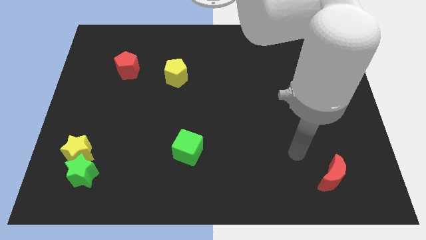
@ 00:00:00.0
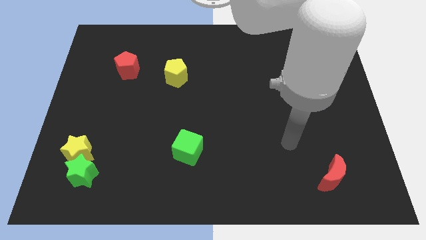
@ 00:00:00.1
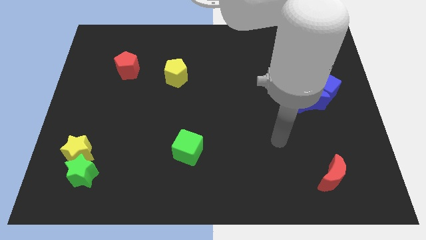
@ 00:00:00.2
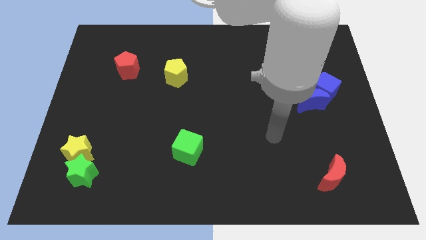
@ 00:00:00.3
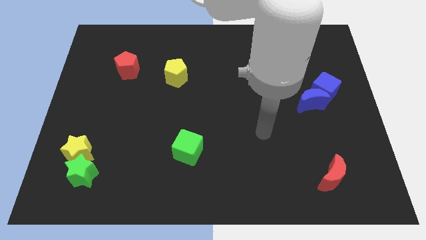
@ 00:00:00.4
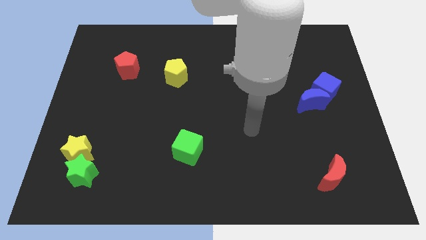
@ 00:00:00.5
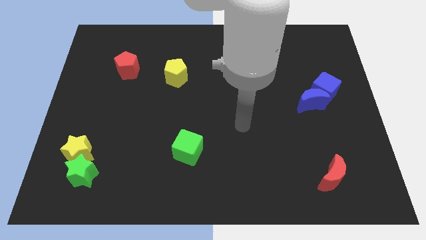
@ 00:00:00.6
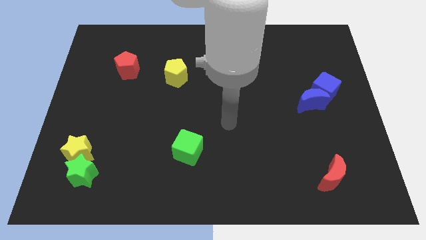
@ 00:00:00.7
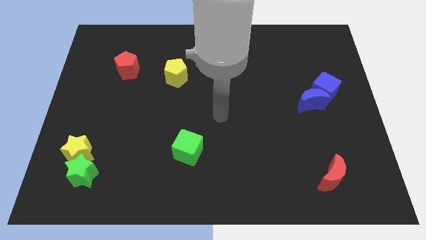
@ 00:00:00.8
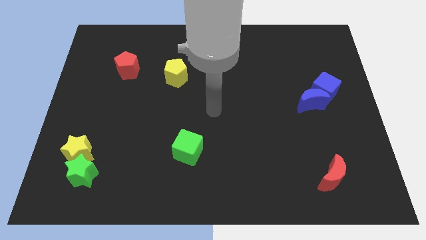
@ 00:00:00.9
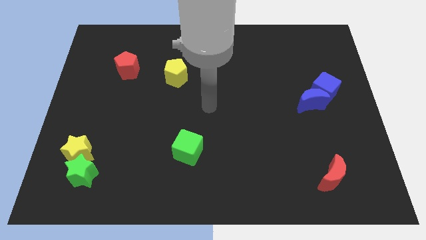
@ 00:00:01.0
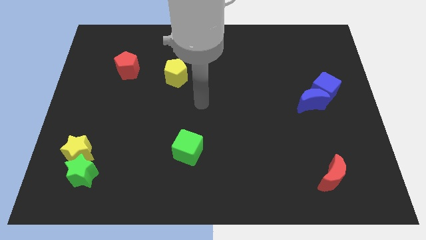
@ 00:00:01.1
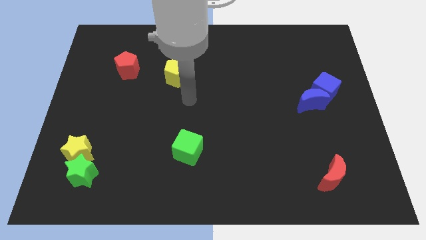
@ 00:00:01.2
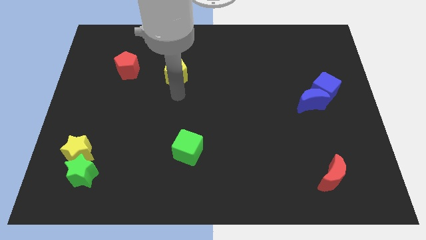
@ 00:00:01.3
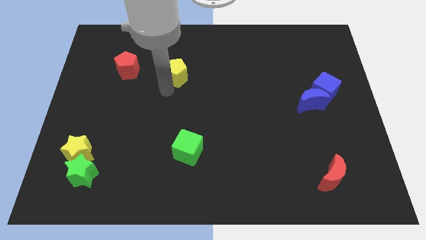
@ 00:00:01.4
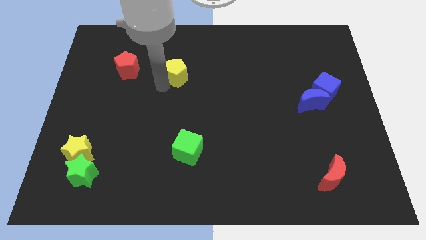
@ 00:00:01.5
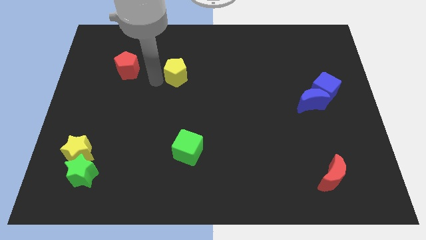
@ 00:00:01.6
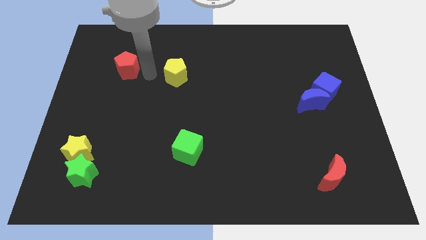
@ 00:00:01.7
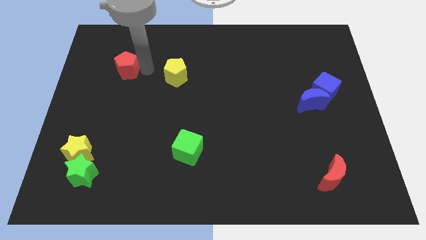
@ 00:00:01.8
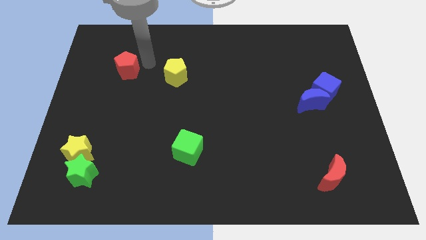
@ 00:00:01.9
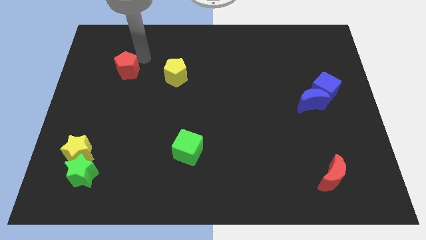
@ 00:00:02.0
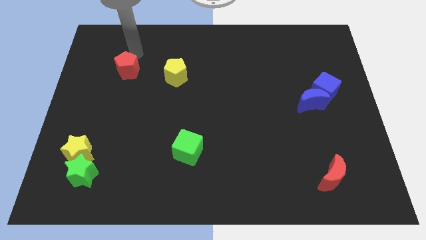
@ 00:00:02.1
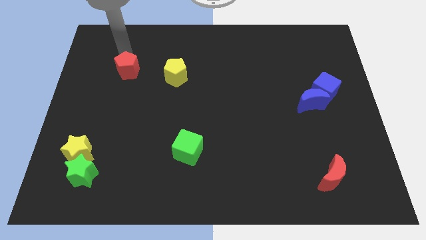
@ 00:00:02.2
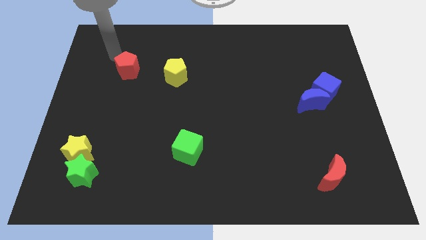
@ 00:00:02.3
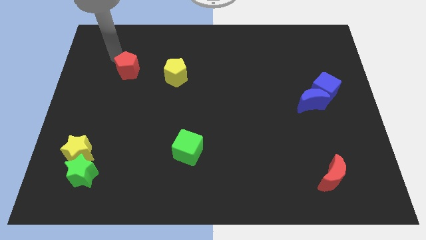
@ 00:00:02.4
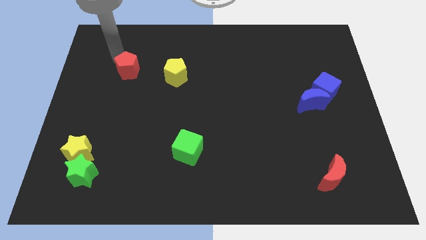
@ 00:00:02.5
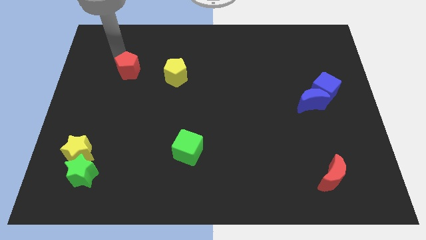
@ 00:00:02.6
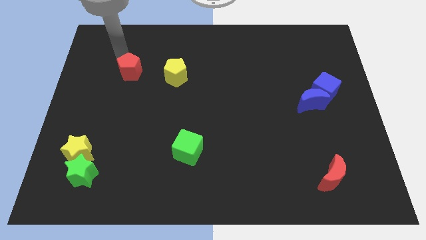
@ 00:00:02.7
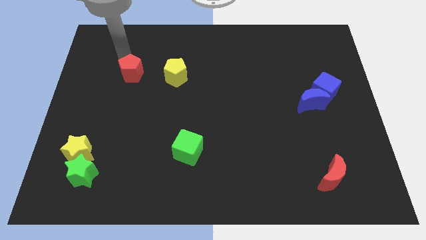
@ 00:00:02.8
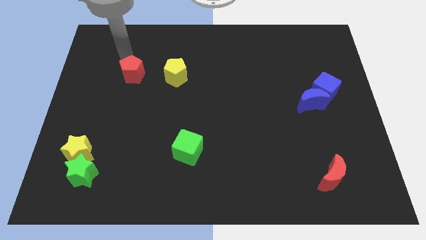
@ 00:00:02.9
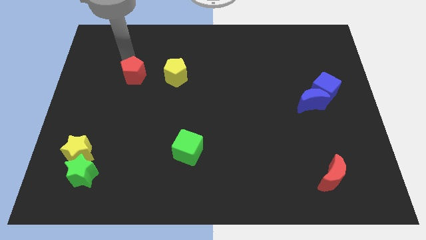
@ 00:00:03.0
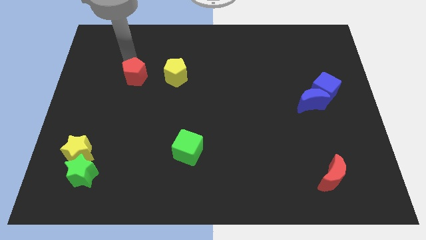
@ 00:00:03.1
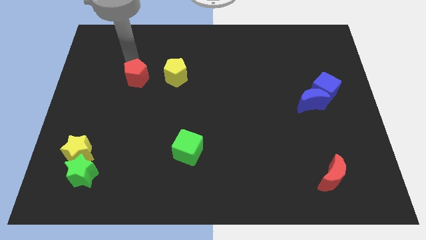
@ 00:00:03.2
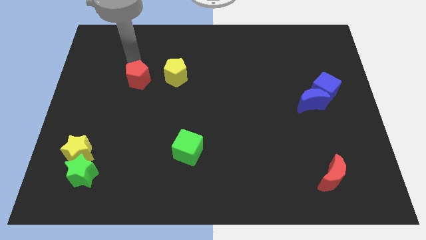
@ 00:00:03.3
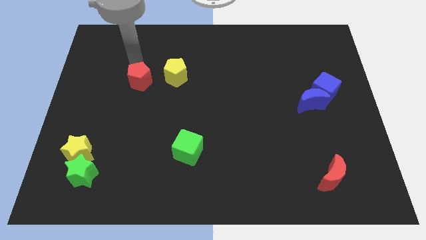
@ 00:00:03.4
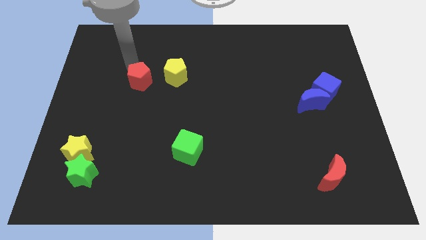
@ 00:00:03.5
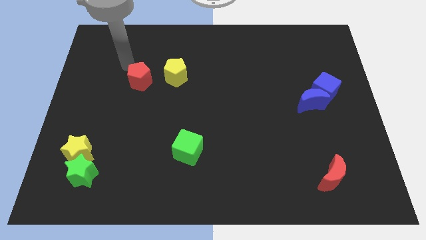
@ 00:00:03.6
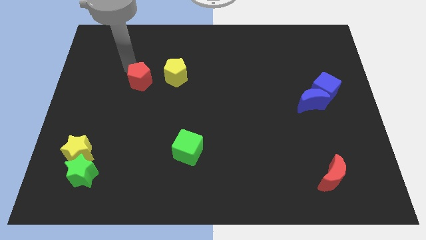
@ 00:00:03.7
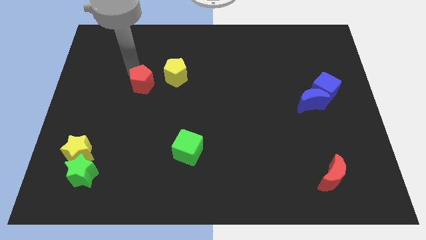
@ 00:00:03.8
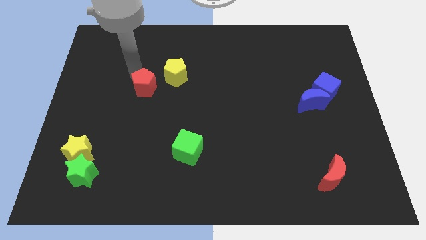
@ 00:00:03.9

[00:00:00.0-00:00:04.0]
push the red pentagon a little down and right

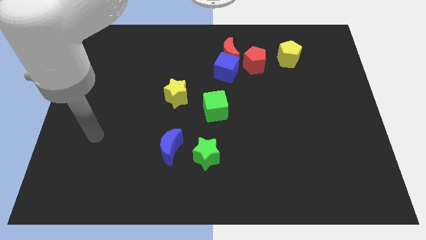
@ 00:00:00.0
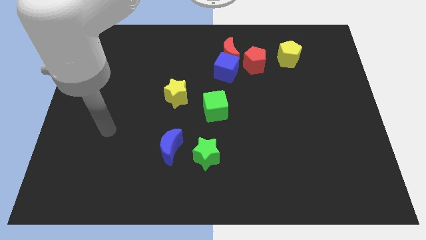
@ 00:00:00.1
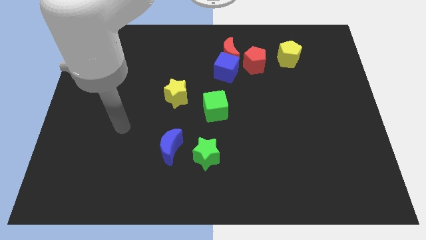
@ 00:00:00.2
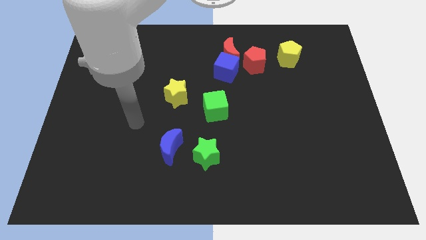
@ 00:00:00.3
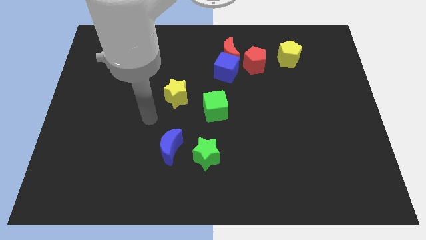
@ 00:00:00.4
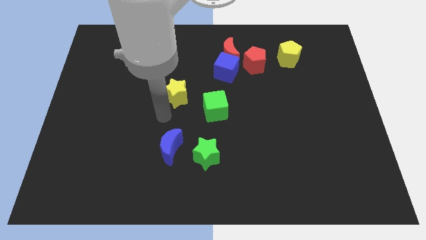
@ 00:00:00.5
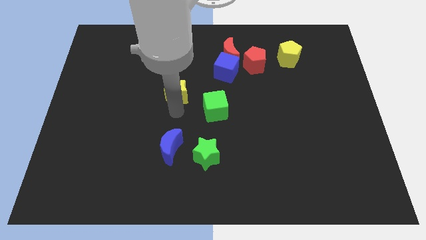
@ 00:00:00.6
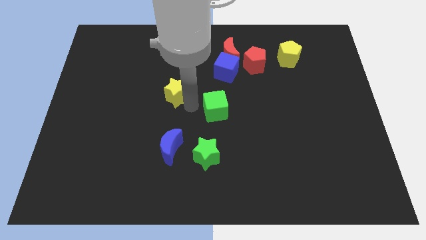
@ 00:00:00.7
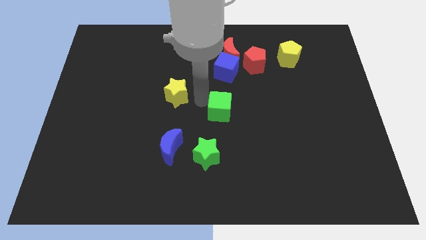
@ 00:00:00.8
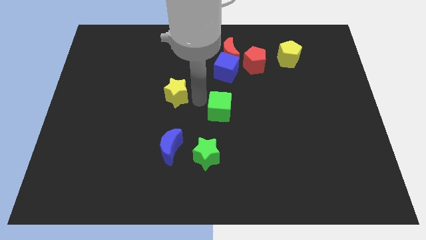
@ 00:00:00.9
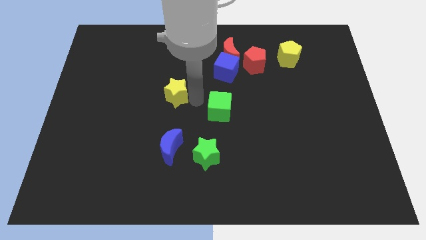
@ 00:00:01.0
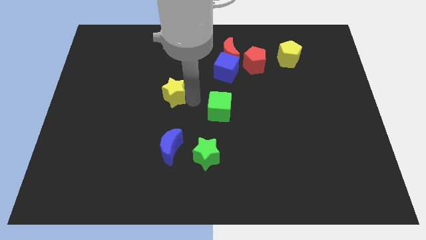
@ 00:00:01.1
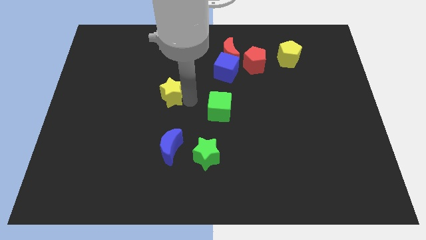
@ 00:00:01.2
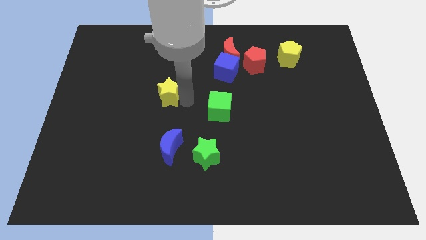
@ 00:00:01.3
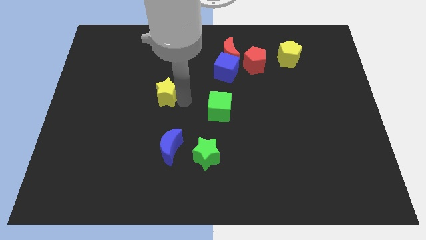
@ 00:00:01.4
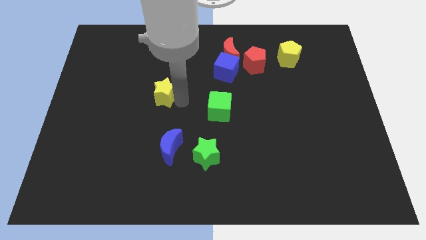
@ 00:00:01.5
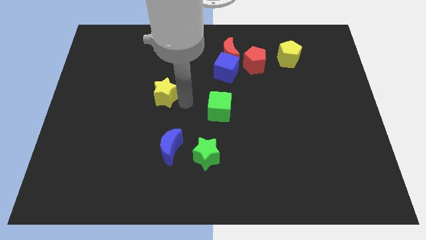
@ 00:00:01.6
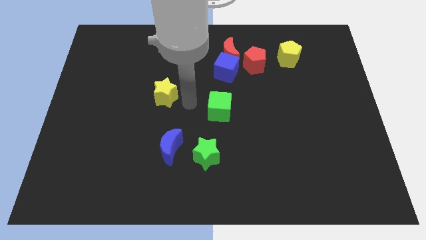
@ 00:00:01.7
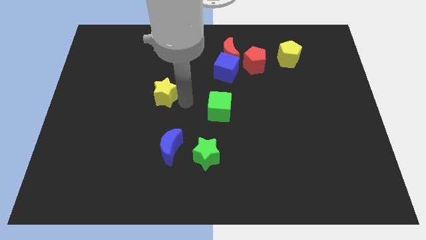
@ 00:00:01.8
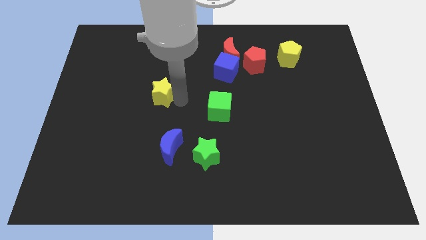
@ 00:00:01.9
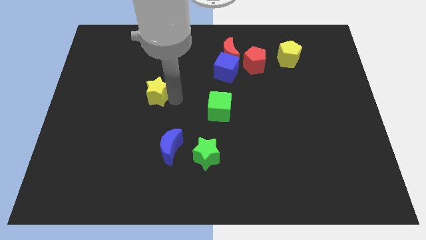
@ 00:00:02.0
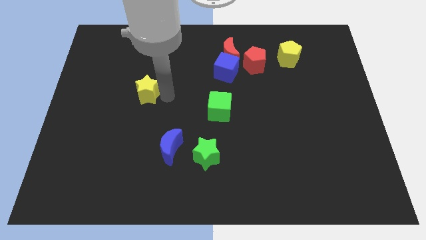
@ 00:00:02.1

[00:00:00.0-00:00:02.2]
slightly push the yellow star to the left

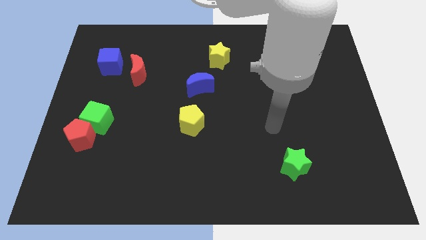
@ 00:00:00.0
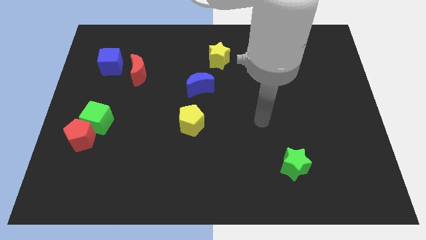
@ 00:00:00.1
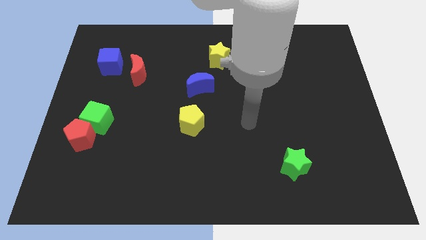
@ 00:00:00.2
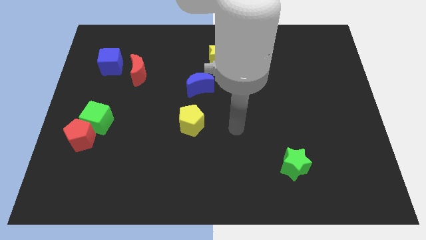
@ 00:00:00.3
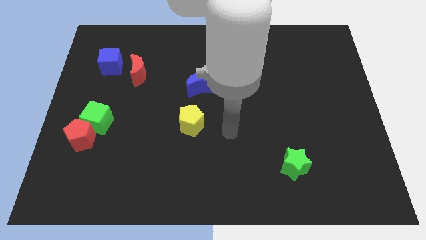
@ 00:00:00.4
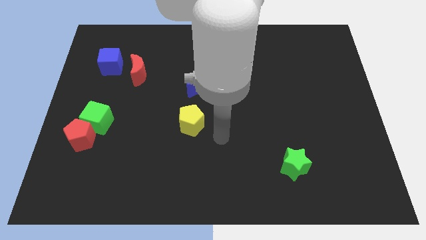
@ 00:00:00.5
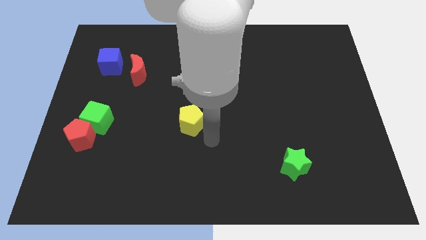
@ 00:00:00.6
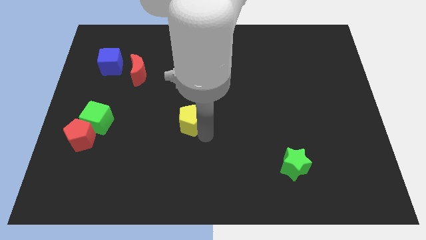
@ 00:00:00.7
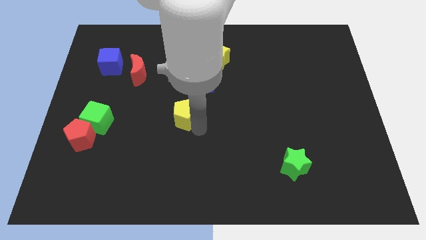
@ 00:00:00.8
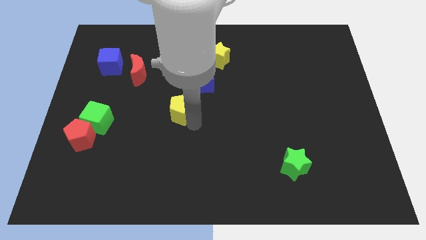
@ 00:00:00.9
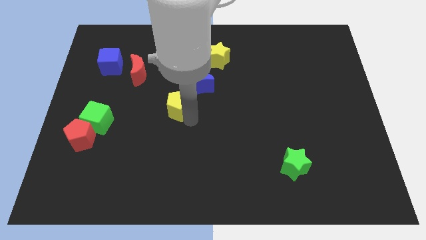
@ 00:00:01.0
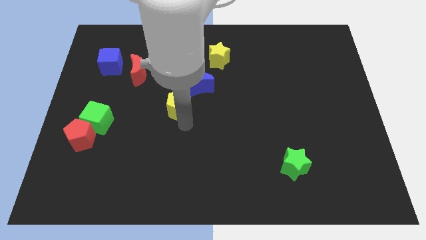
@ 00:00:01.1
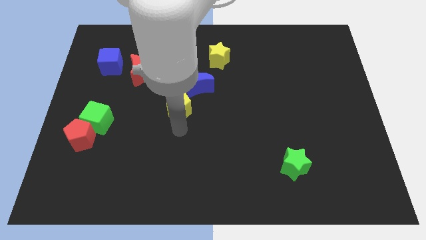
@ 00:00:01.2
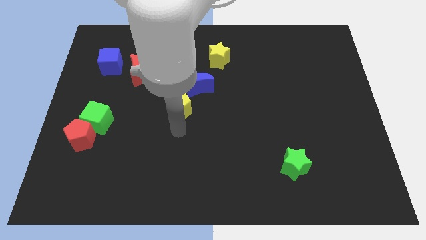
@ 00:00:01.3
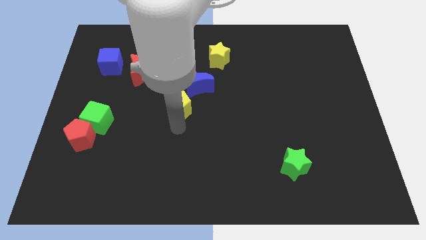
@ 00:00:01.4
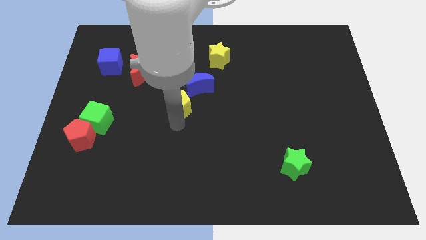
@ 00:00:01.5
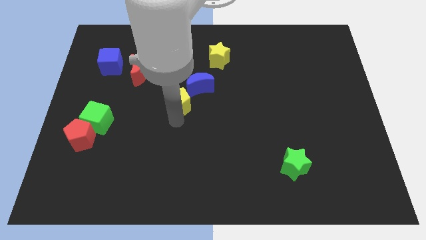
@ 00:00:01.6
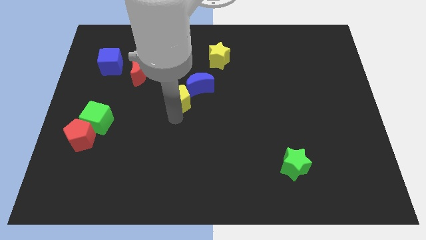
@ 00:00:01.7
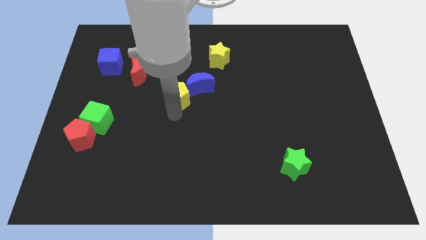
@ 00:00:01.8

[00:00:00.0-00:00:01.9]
slightly move the yellow pentagon up
